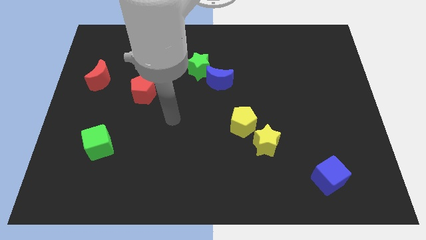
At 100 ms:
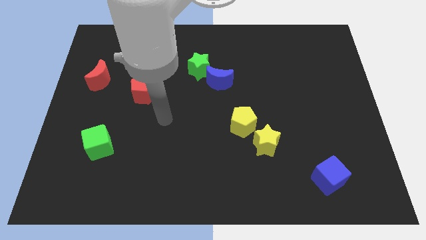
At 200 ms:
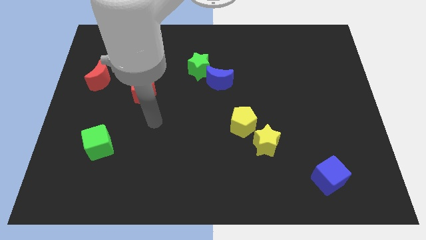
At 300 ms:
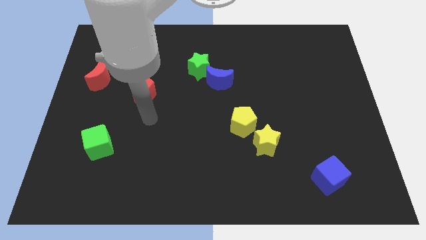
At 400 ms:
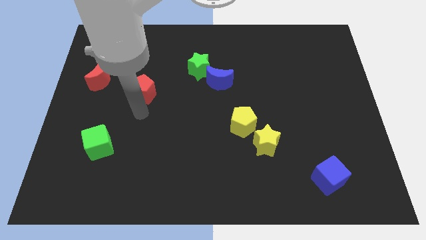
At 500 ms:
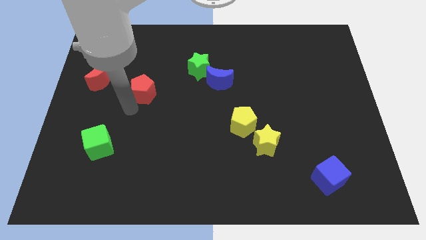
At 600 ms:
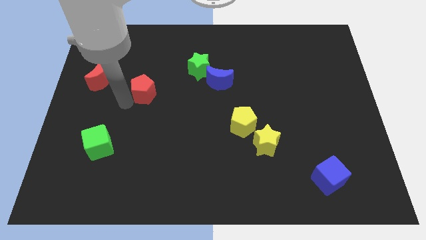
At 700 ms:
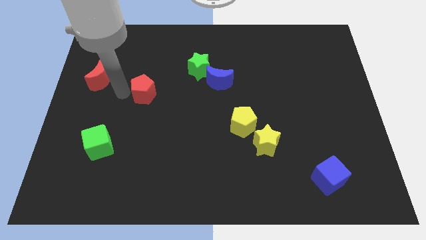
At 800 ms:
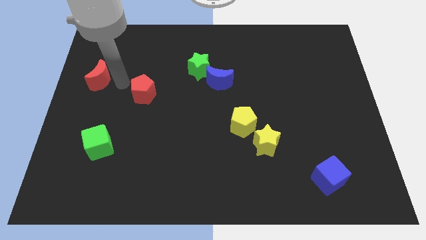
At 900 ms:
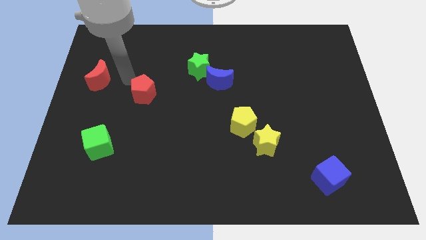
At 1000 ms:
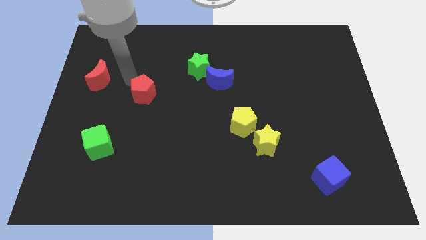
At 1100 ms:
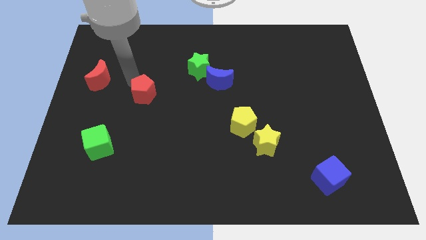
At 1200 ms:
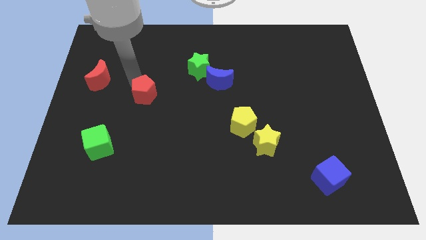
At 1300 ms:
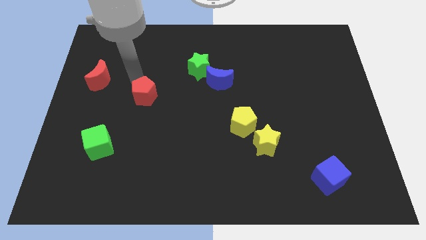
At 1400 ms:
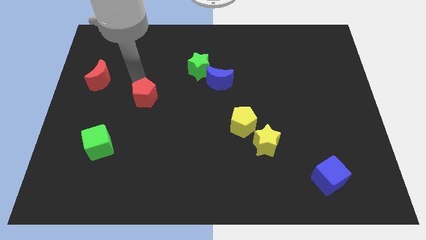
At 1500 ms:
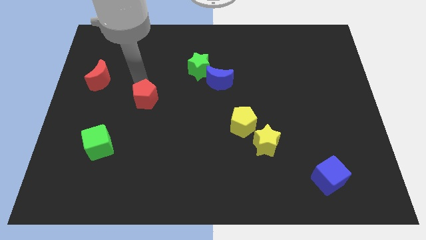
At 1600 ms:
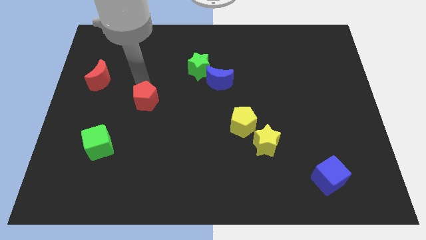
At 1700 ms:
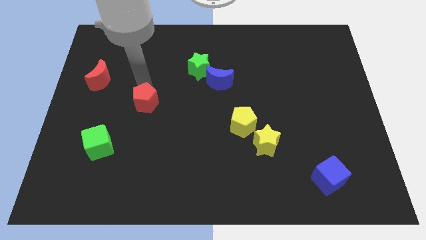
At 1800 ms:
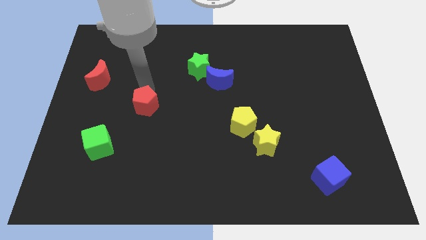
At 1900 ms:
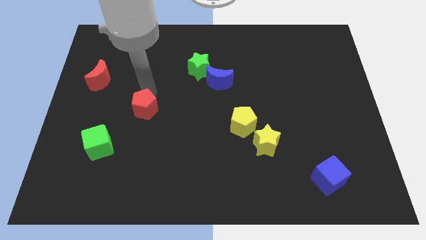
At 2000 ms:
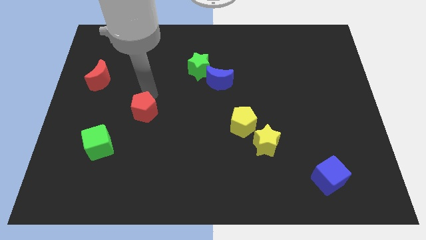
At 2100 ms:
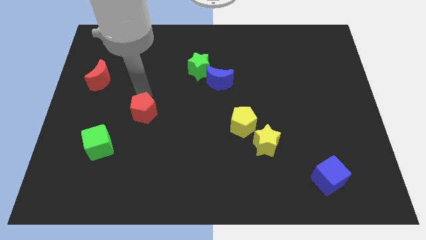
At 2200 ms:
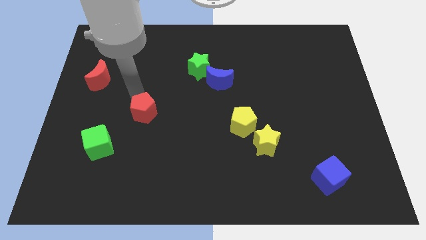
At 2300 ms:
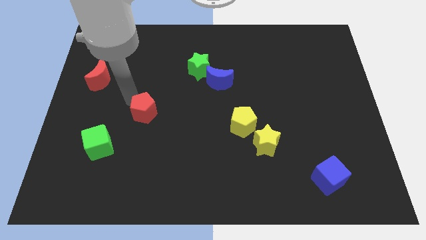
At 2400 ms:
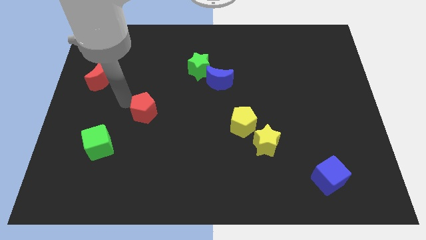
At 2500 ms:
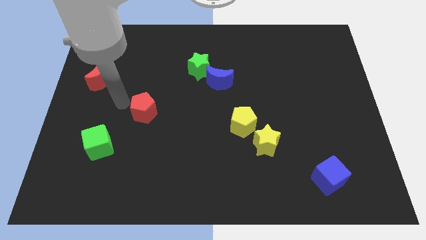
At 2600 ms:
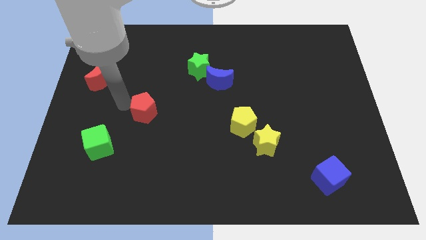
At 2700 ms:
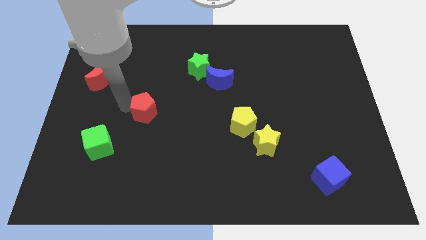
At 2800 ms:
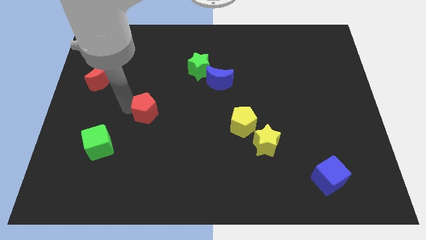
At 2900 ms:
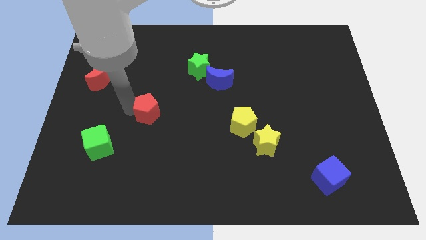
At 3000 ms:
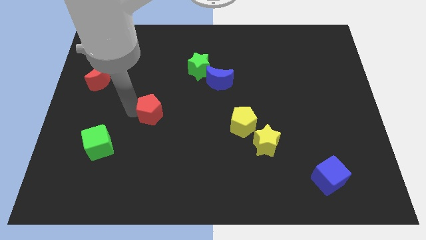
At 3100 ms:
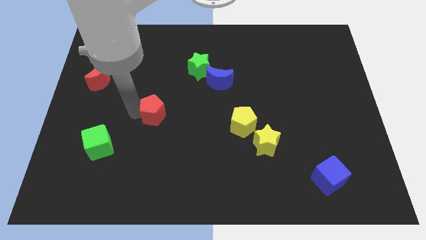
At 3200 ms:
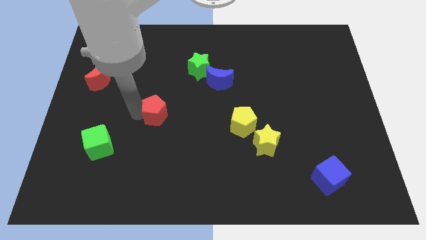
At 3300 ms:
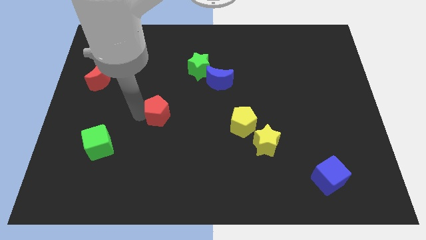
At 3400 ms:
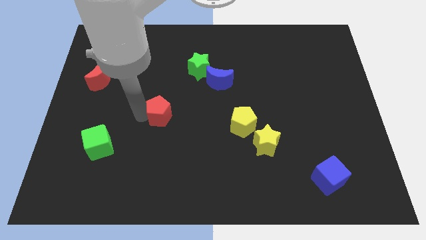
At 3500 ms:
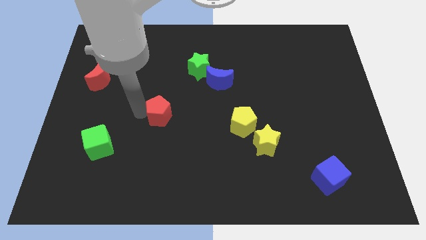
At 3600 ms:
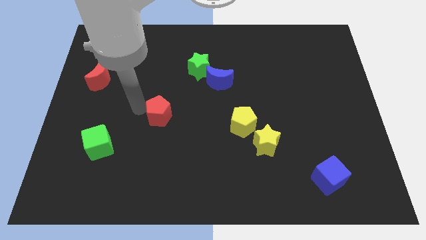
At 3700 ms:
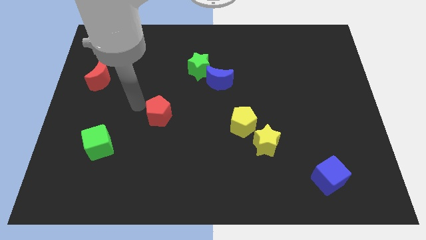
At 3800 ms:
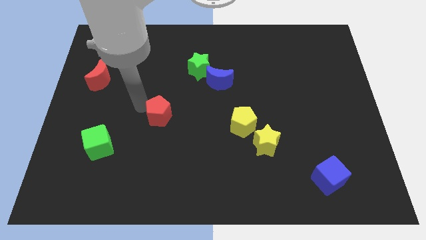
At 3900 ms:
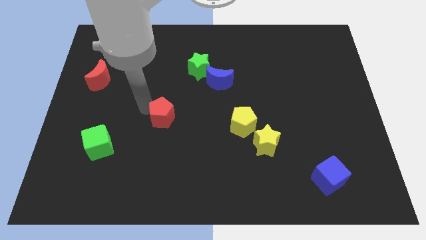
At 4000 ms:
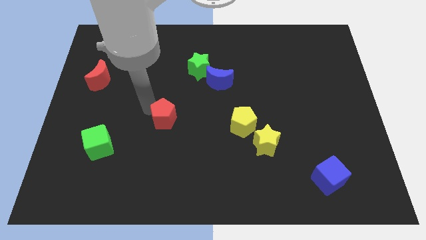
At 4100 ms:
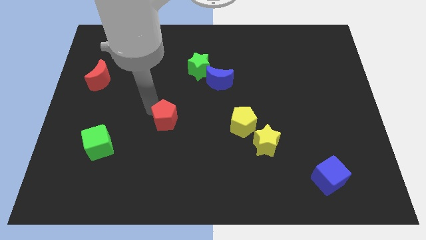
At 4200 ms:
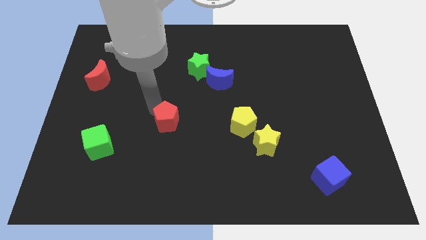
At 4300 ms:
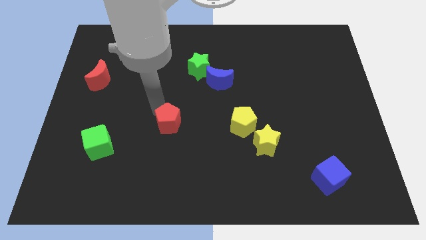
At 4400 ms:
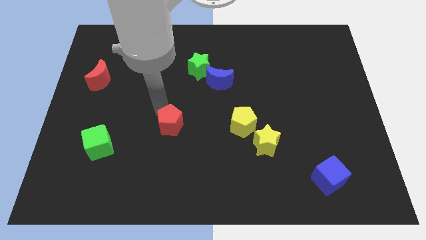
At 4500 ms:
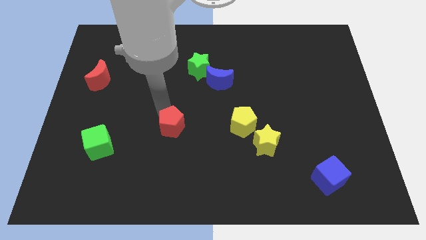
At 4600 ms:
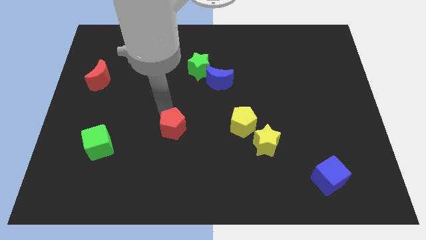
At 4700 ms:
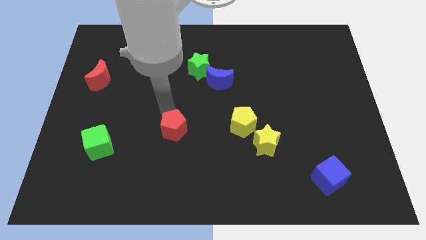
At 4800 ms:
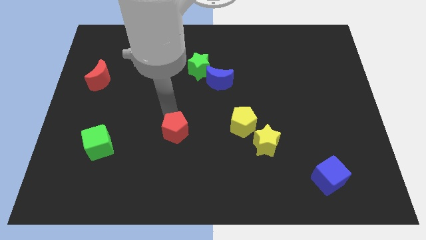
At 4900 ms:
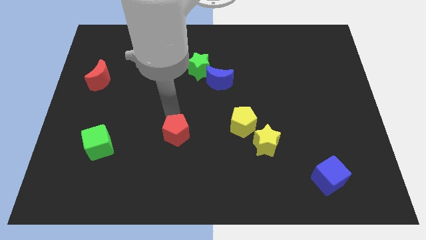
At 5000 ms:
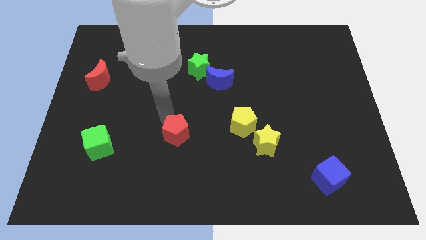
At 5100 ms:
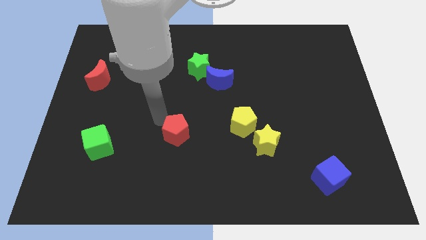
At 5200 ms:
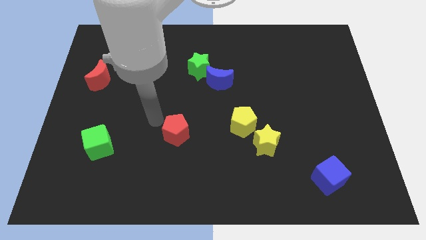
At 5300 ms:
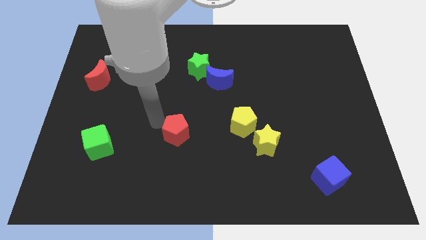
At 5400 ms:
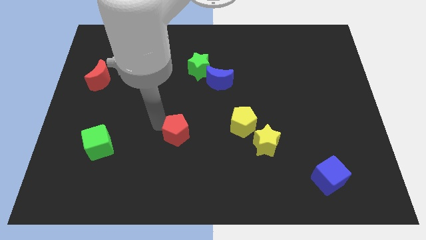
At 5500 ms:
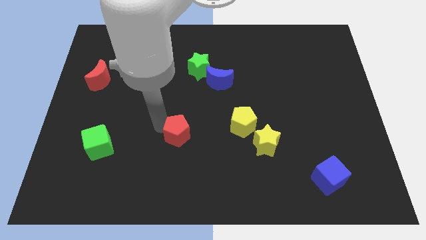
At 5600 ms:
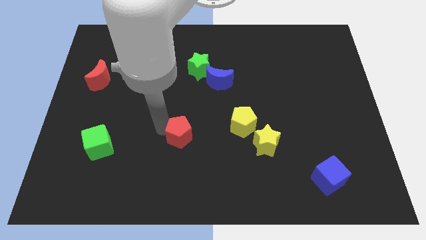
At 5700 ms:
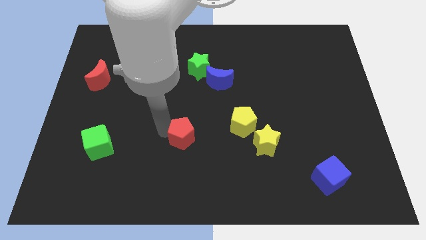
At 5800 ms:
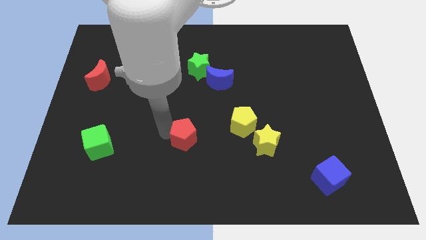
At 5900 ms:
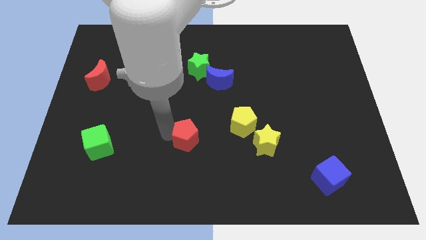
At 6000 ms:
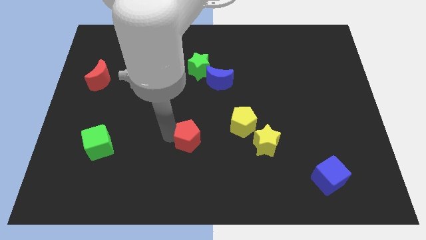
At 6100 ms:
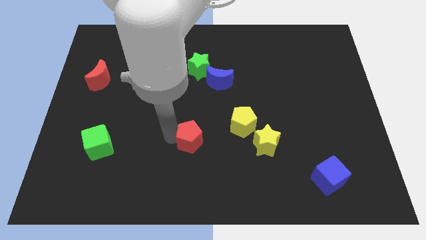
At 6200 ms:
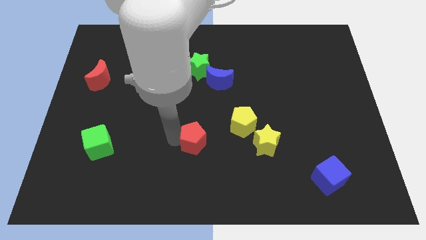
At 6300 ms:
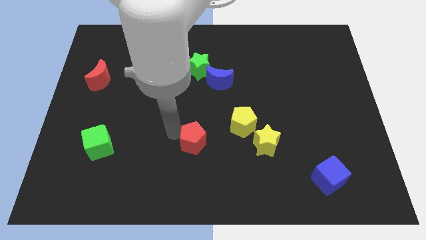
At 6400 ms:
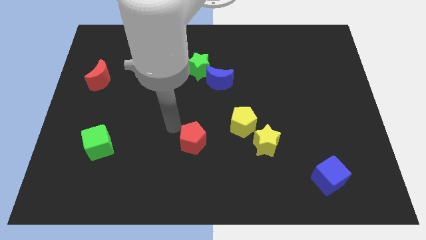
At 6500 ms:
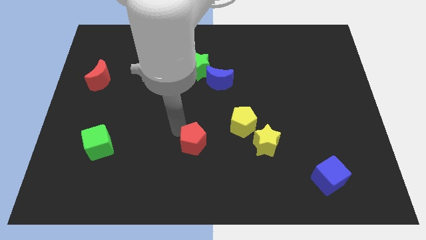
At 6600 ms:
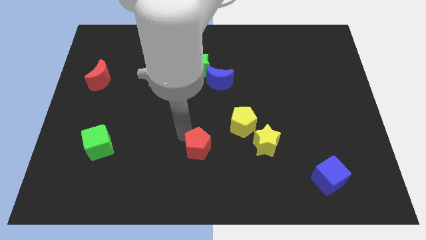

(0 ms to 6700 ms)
move the red pentagon downwards and then right

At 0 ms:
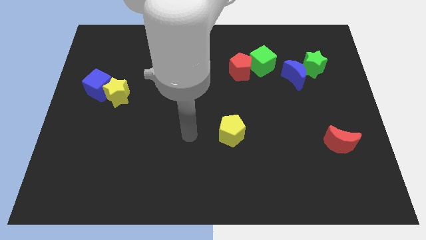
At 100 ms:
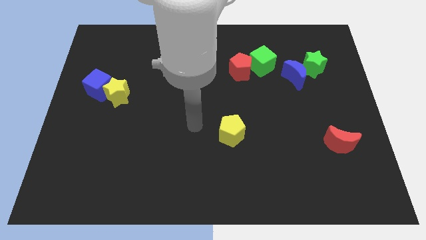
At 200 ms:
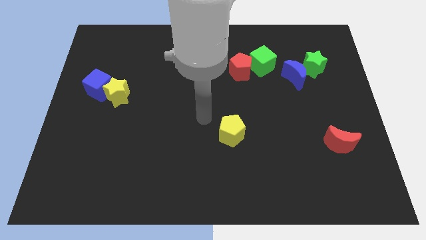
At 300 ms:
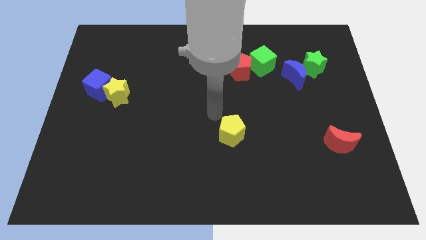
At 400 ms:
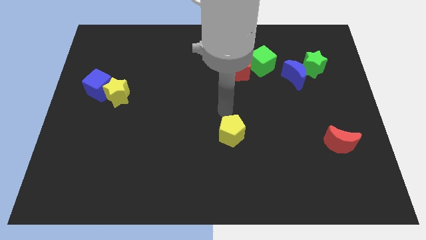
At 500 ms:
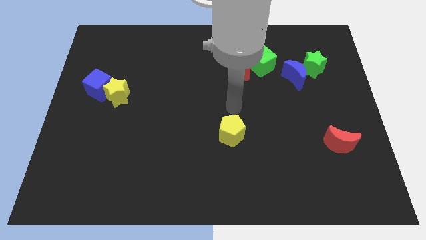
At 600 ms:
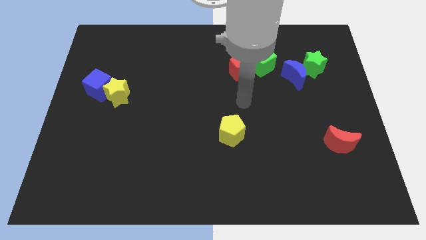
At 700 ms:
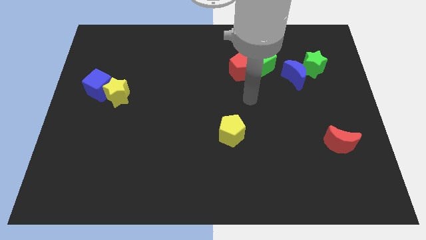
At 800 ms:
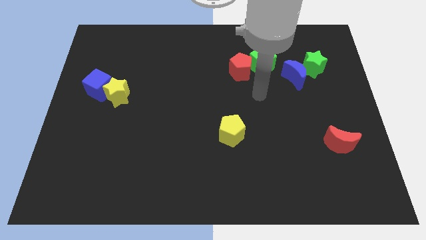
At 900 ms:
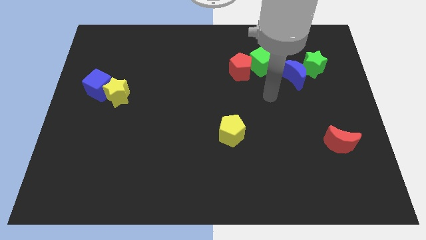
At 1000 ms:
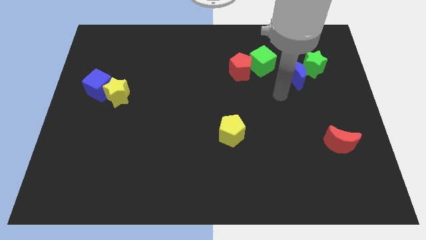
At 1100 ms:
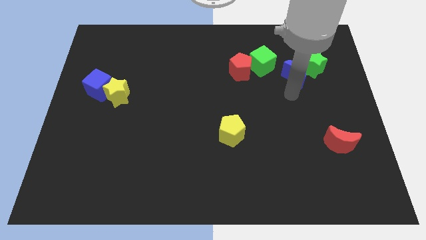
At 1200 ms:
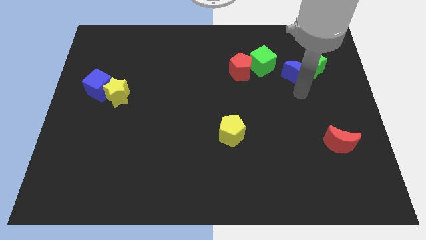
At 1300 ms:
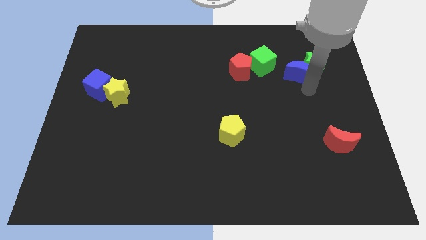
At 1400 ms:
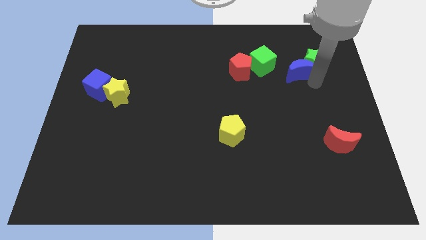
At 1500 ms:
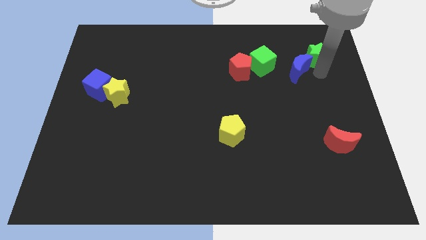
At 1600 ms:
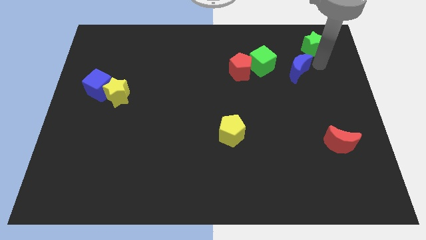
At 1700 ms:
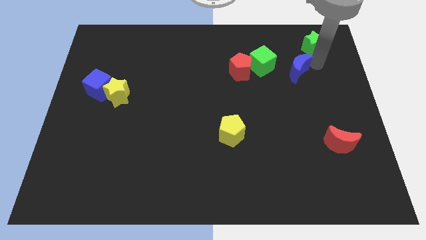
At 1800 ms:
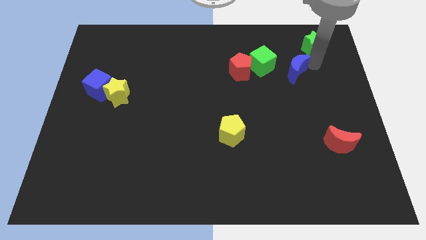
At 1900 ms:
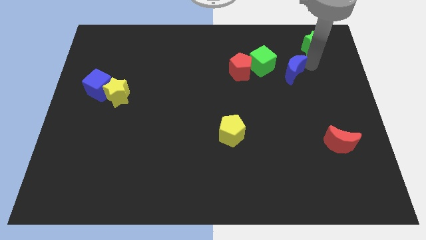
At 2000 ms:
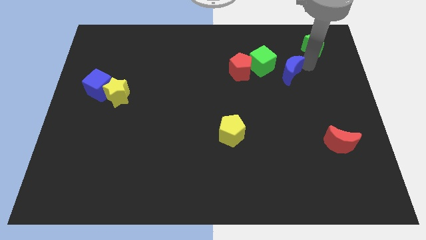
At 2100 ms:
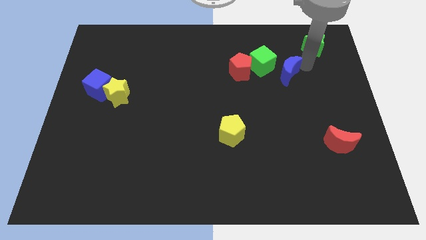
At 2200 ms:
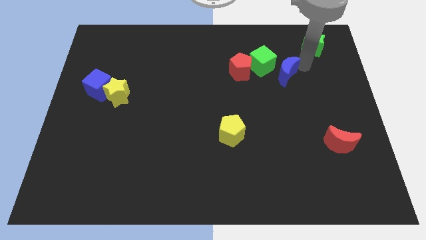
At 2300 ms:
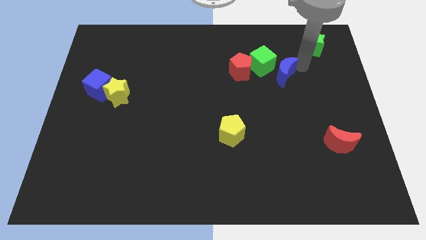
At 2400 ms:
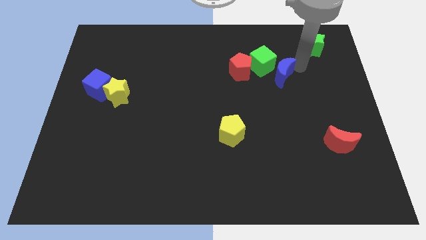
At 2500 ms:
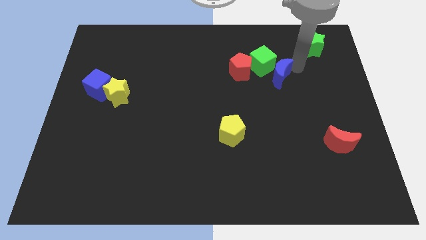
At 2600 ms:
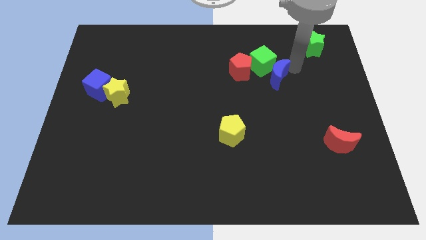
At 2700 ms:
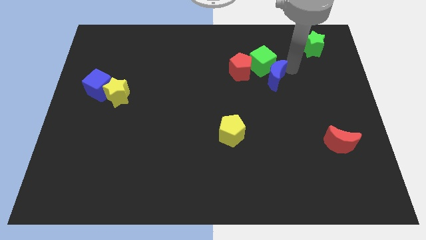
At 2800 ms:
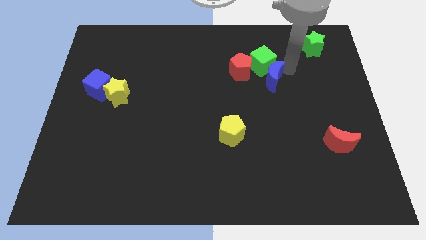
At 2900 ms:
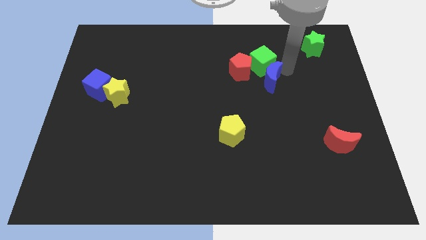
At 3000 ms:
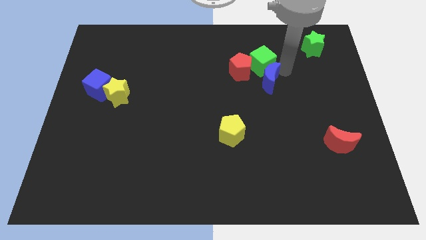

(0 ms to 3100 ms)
move the blue moon a bit left
